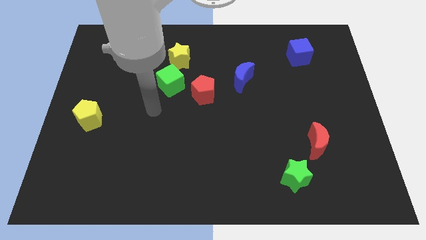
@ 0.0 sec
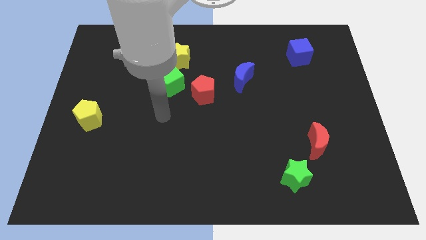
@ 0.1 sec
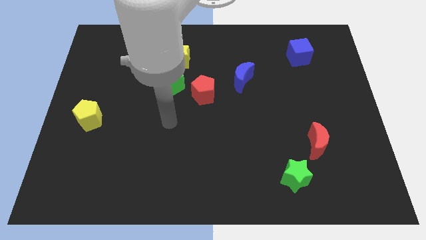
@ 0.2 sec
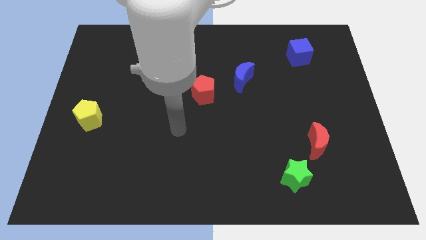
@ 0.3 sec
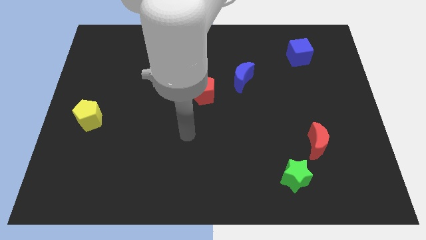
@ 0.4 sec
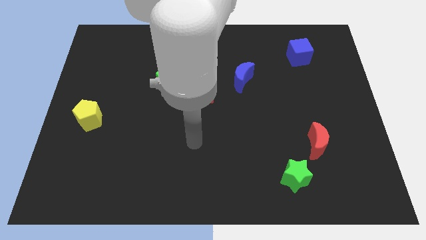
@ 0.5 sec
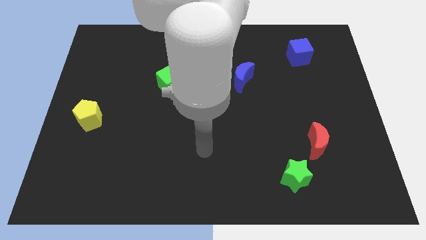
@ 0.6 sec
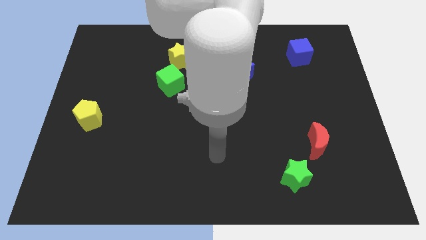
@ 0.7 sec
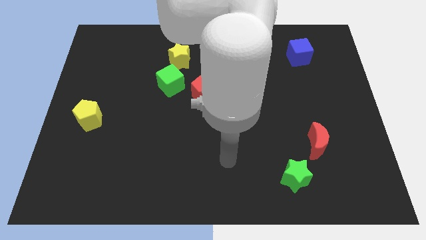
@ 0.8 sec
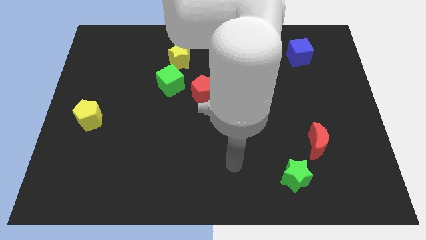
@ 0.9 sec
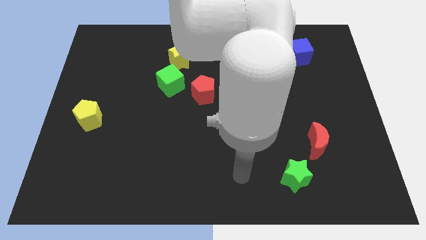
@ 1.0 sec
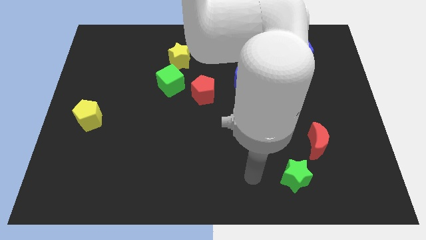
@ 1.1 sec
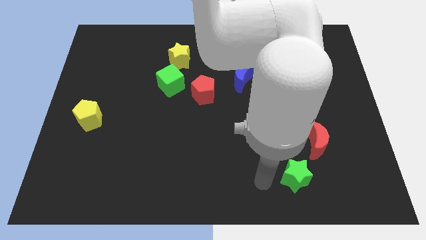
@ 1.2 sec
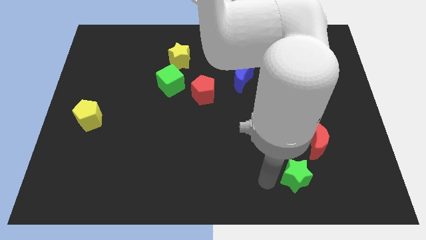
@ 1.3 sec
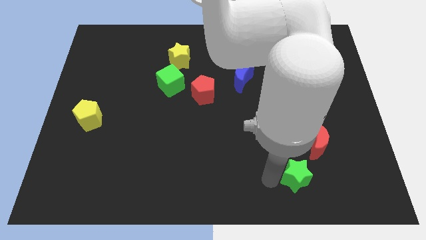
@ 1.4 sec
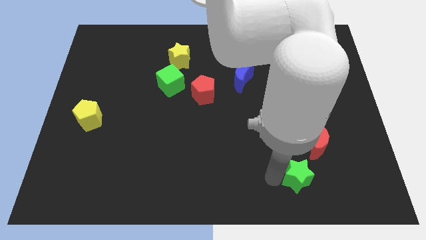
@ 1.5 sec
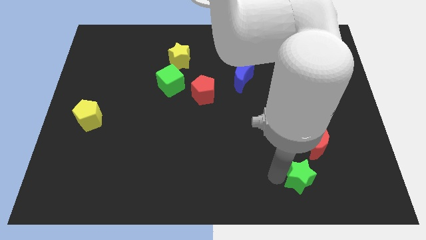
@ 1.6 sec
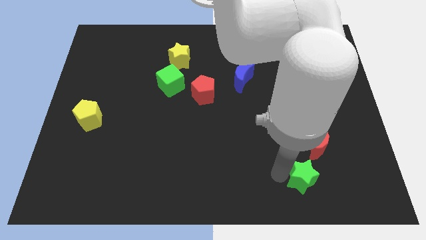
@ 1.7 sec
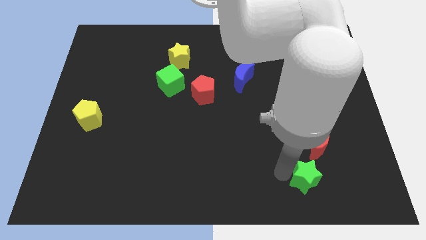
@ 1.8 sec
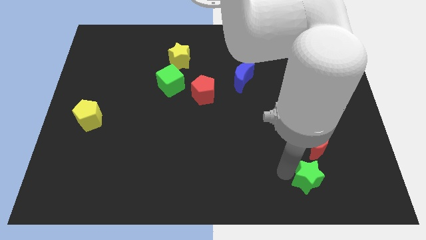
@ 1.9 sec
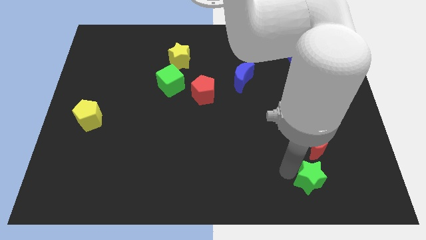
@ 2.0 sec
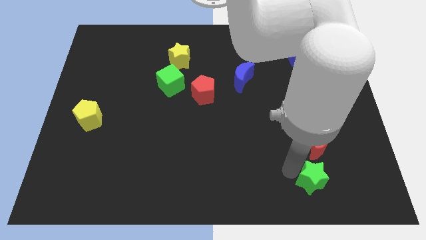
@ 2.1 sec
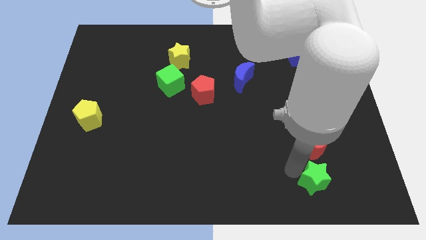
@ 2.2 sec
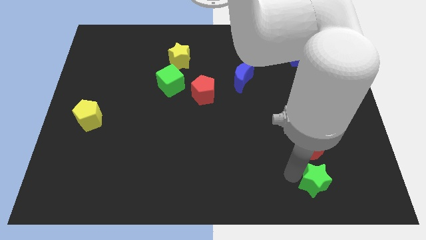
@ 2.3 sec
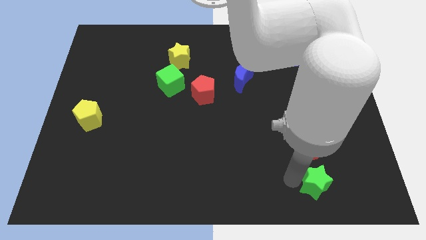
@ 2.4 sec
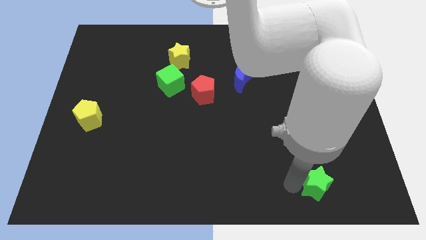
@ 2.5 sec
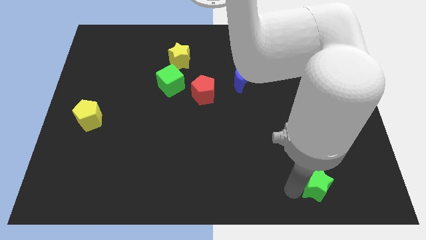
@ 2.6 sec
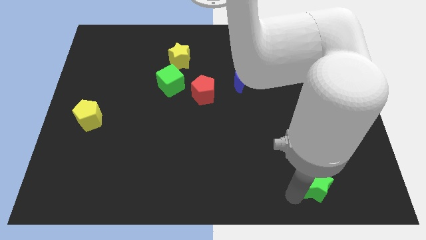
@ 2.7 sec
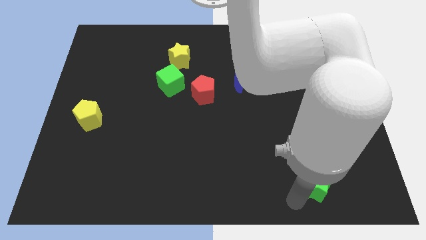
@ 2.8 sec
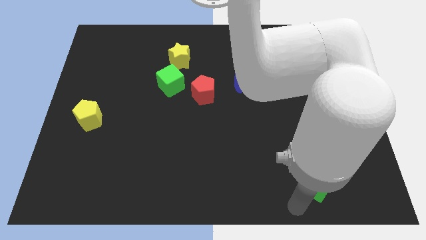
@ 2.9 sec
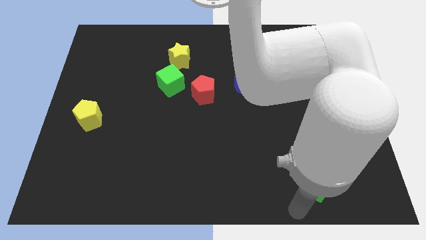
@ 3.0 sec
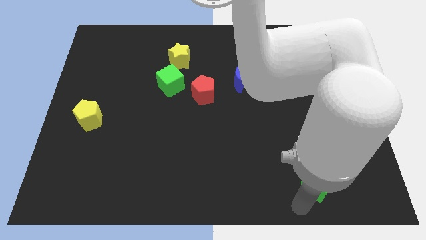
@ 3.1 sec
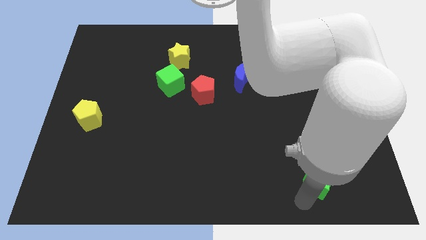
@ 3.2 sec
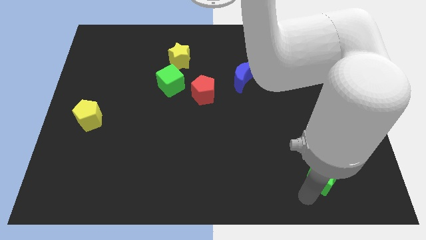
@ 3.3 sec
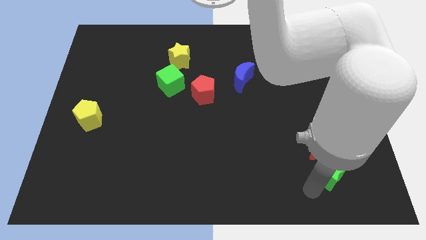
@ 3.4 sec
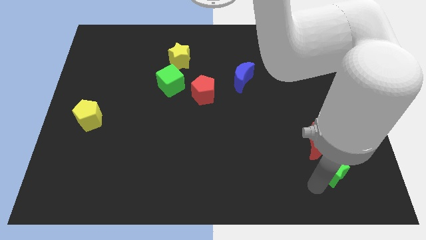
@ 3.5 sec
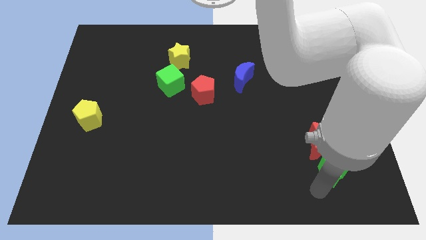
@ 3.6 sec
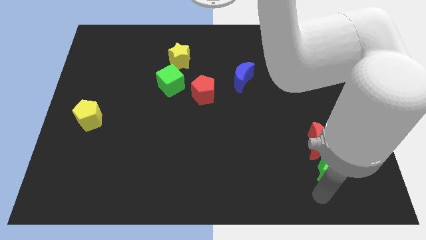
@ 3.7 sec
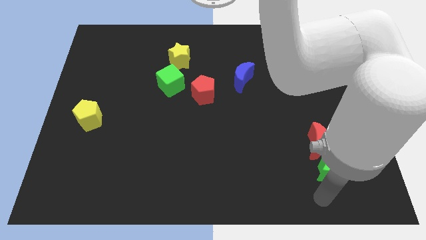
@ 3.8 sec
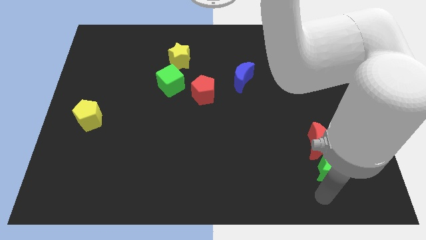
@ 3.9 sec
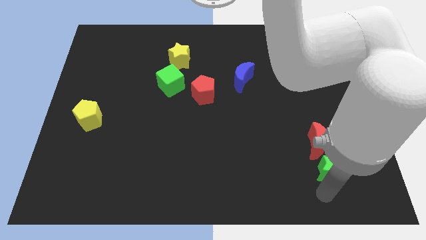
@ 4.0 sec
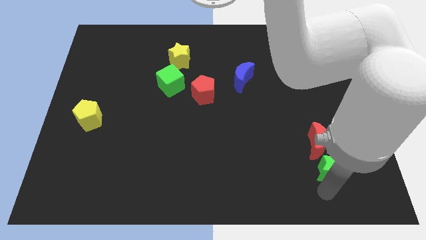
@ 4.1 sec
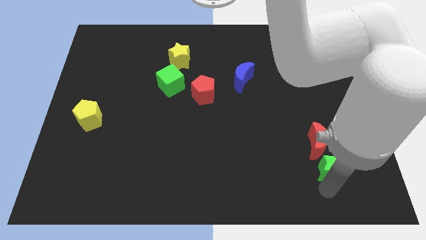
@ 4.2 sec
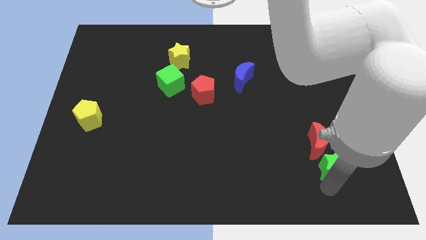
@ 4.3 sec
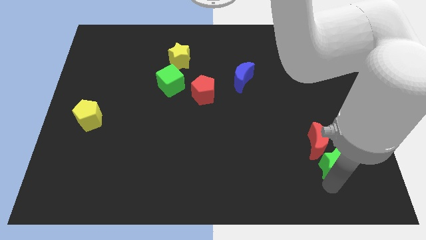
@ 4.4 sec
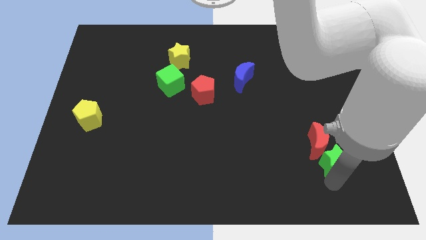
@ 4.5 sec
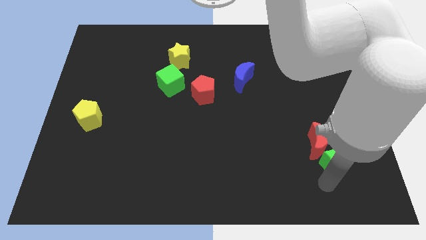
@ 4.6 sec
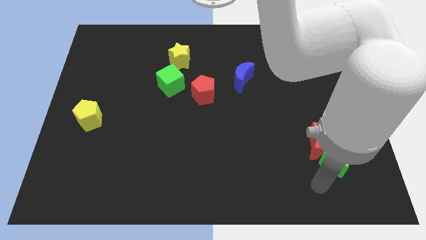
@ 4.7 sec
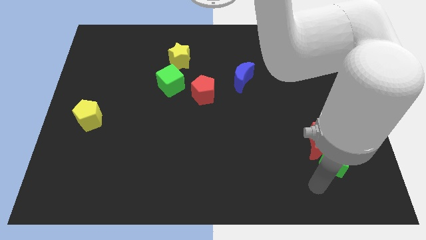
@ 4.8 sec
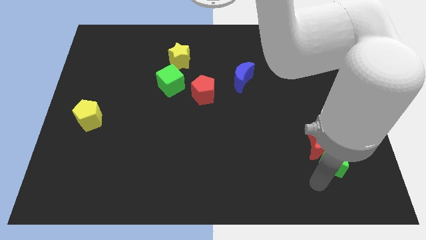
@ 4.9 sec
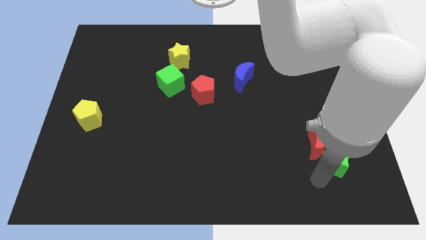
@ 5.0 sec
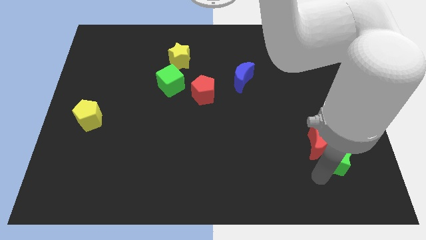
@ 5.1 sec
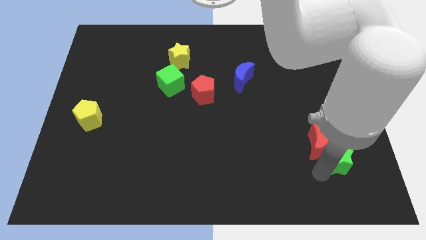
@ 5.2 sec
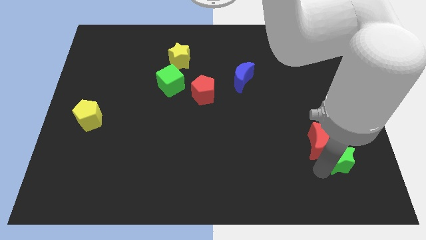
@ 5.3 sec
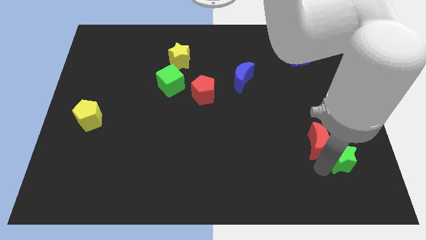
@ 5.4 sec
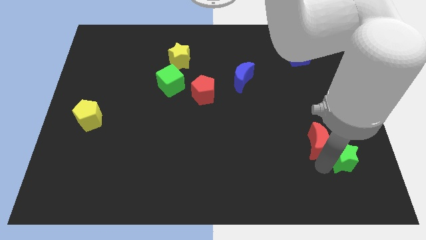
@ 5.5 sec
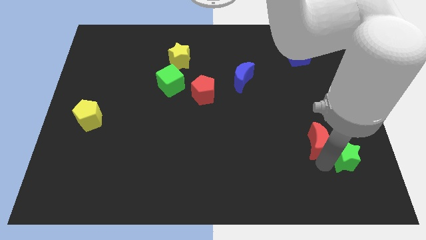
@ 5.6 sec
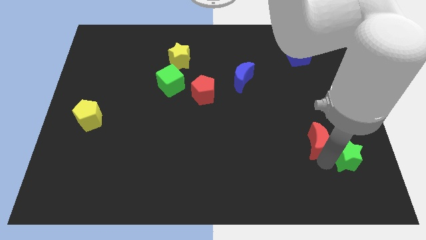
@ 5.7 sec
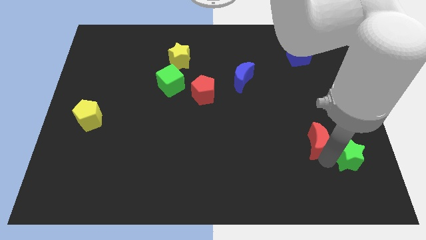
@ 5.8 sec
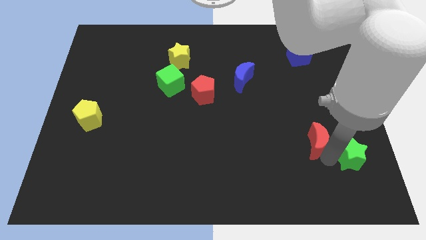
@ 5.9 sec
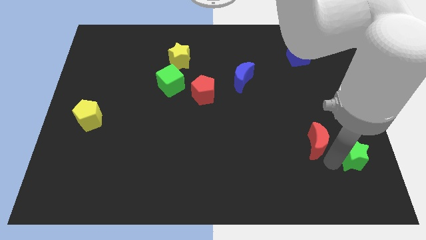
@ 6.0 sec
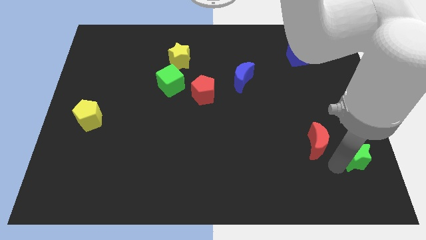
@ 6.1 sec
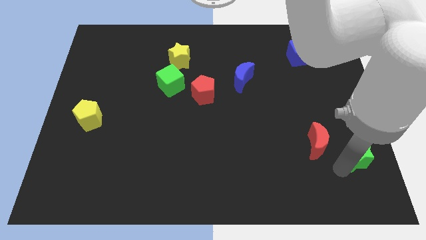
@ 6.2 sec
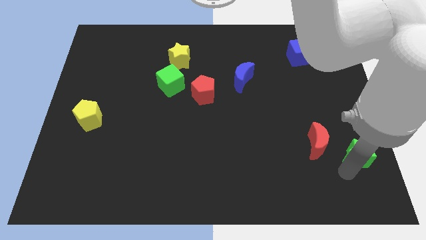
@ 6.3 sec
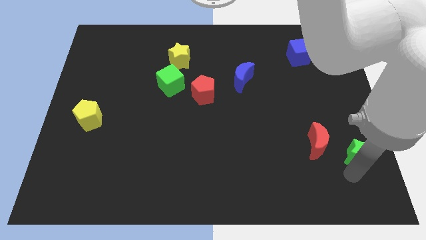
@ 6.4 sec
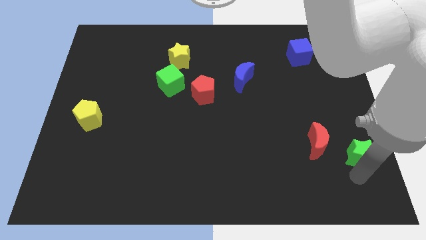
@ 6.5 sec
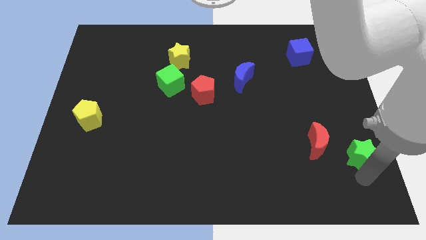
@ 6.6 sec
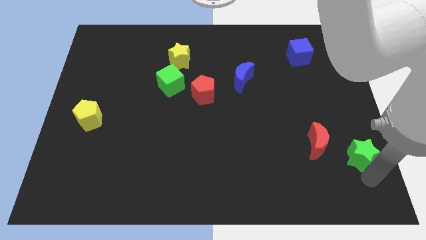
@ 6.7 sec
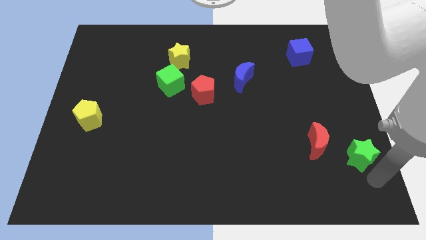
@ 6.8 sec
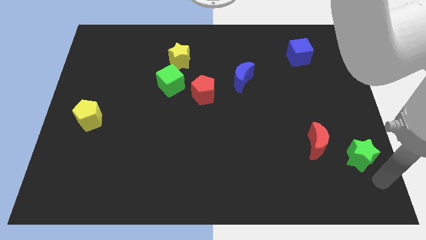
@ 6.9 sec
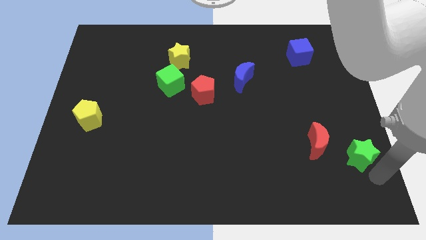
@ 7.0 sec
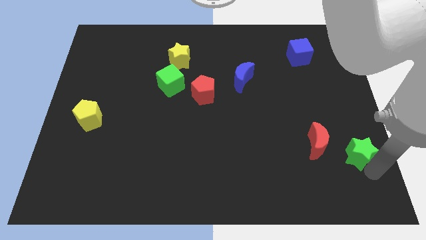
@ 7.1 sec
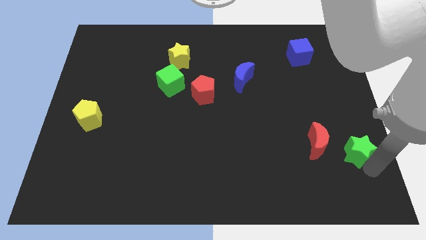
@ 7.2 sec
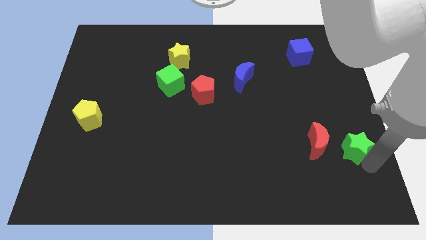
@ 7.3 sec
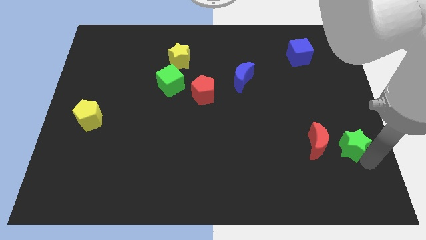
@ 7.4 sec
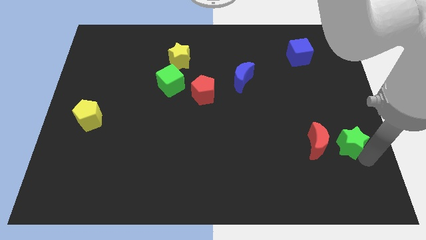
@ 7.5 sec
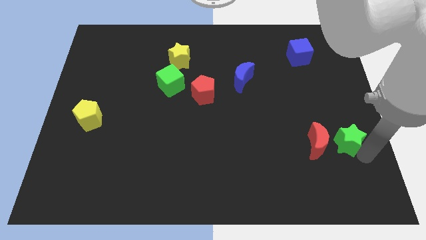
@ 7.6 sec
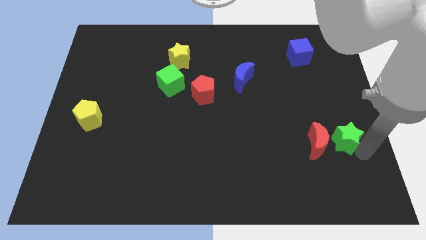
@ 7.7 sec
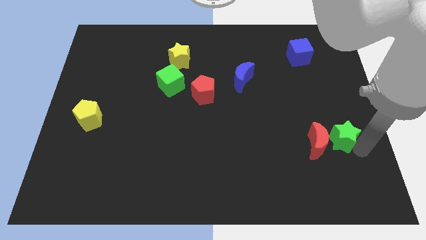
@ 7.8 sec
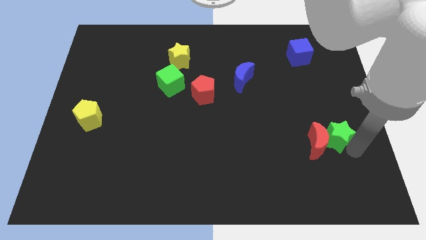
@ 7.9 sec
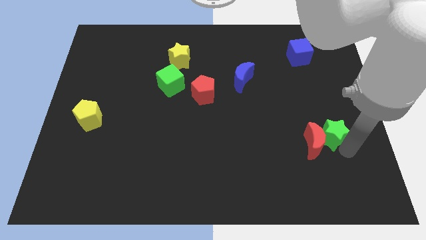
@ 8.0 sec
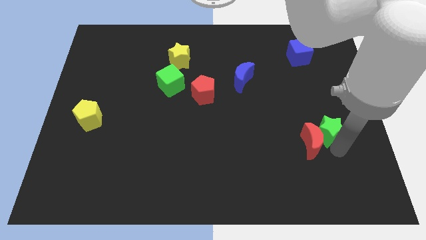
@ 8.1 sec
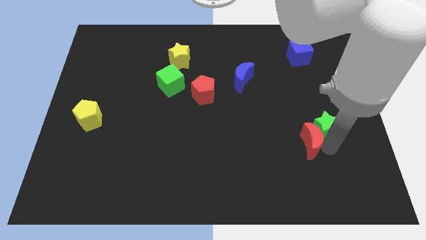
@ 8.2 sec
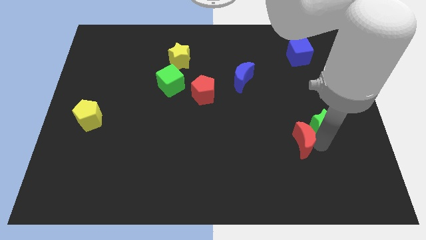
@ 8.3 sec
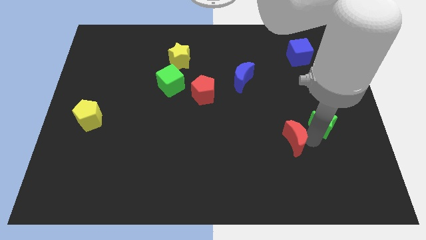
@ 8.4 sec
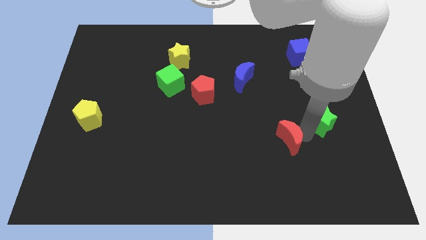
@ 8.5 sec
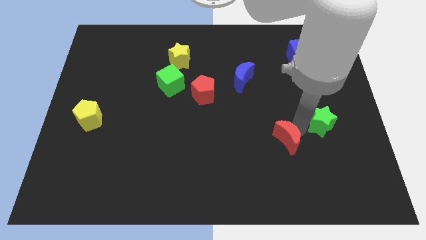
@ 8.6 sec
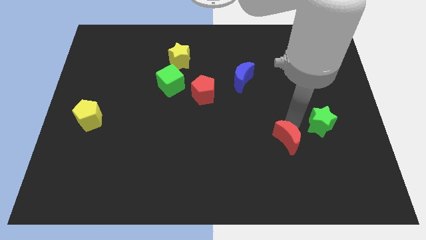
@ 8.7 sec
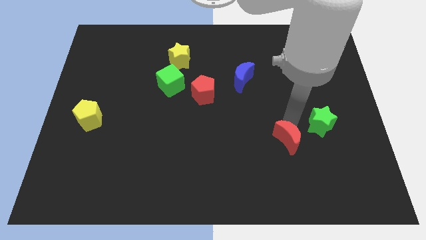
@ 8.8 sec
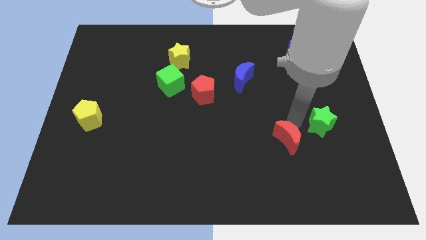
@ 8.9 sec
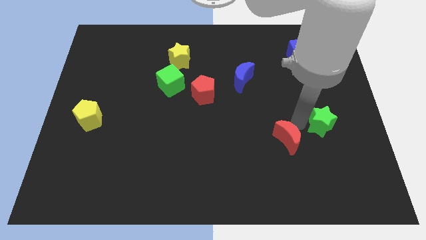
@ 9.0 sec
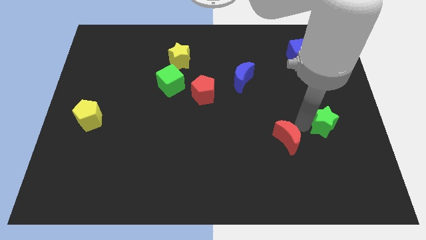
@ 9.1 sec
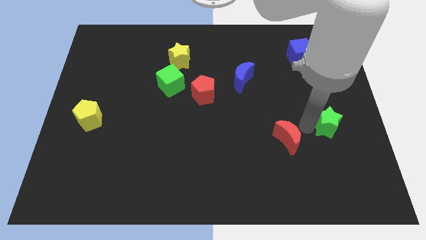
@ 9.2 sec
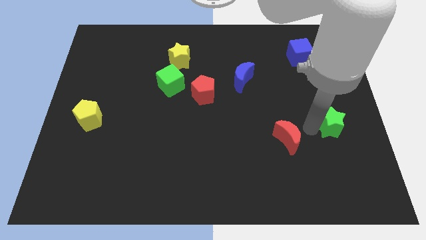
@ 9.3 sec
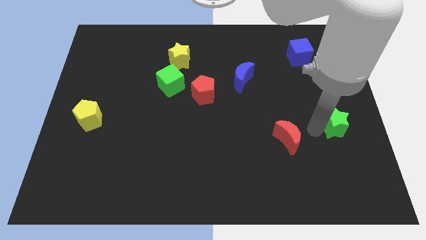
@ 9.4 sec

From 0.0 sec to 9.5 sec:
move the green star to the center right
